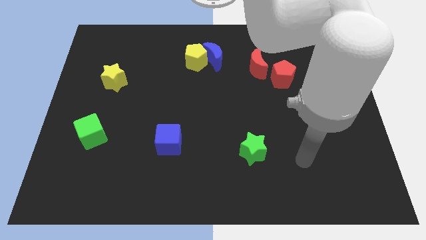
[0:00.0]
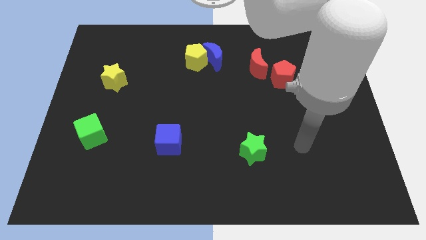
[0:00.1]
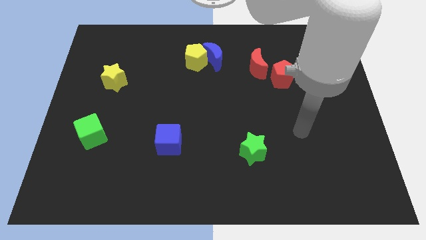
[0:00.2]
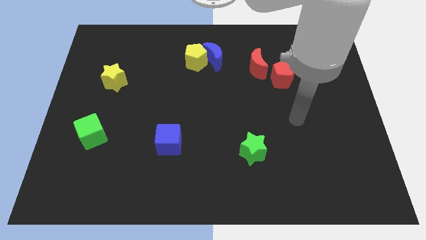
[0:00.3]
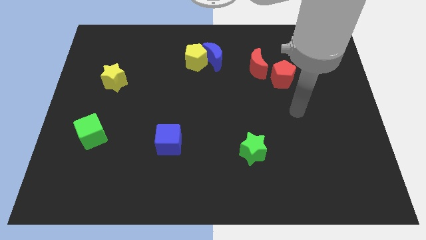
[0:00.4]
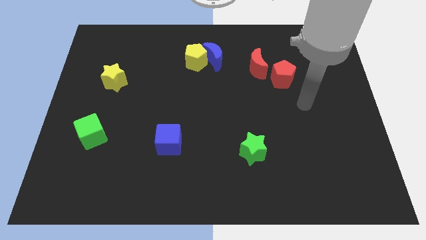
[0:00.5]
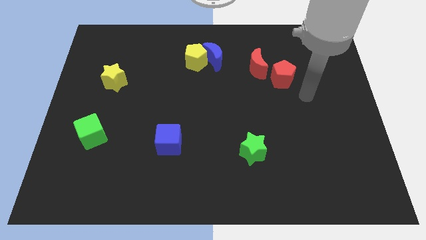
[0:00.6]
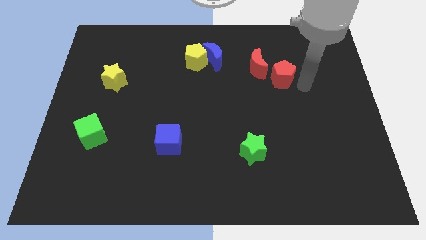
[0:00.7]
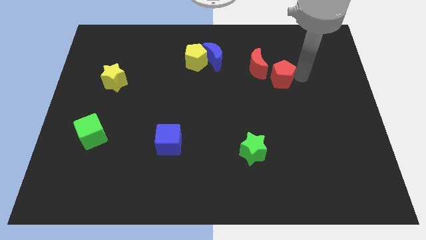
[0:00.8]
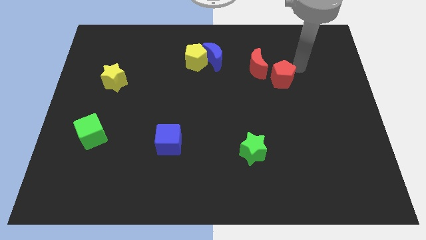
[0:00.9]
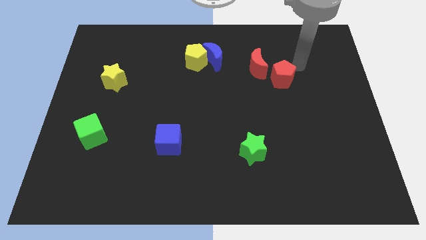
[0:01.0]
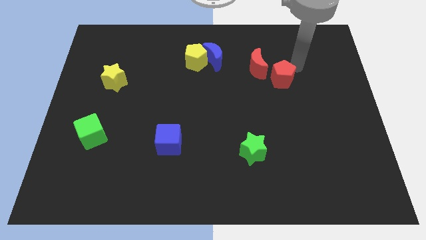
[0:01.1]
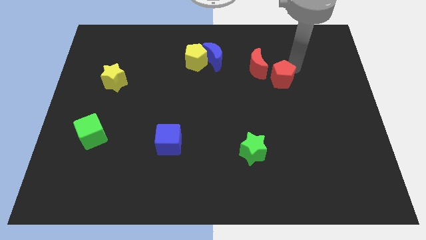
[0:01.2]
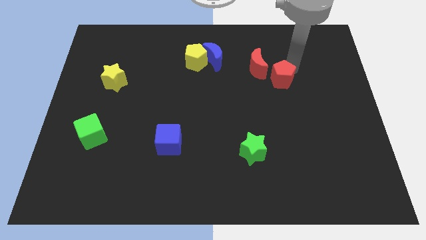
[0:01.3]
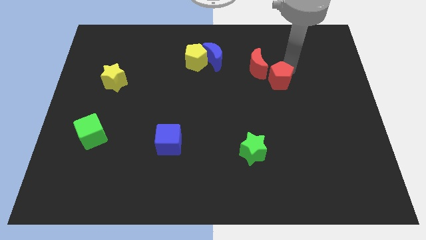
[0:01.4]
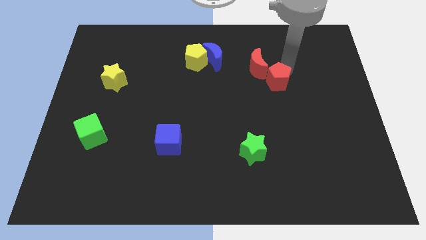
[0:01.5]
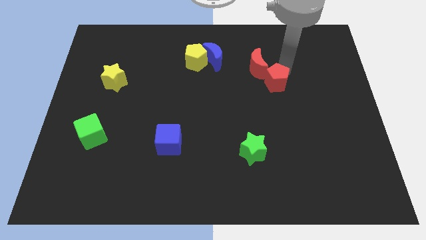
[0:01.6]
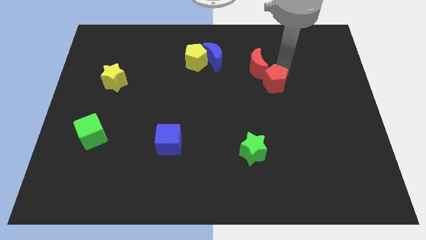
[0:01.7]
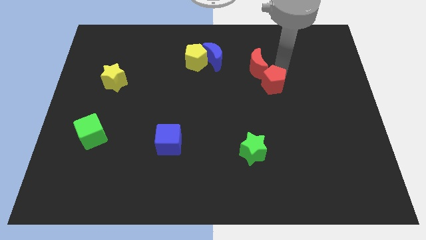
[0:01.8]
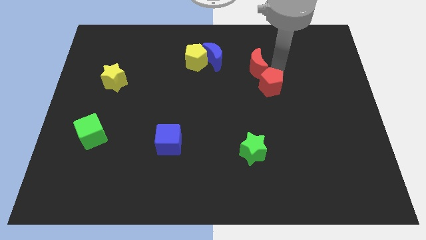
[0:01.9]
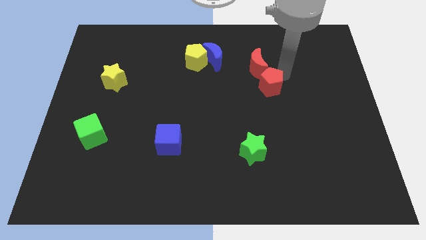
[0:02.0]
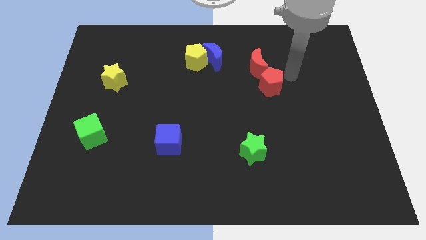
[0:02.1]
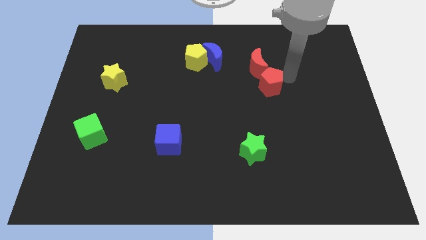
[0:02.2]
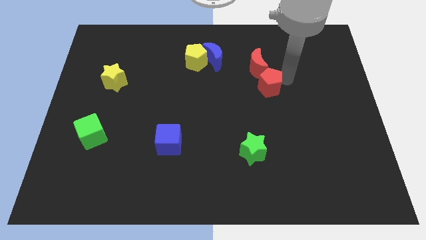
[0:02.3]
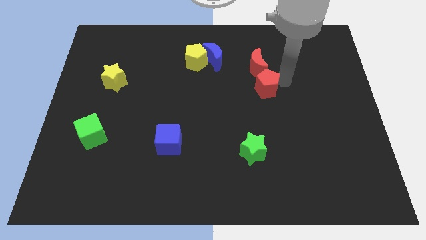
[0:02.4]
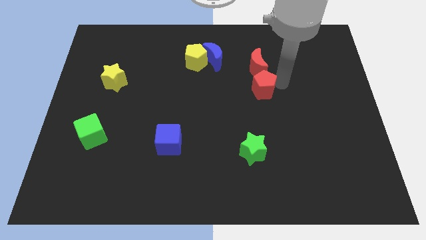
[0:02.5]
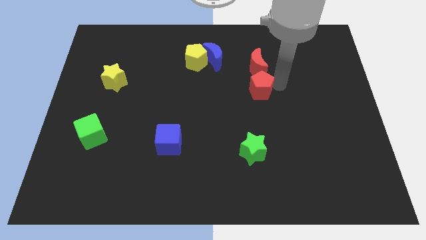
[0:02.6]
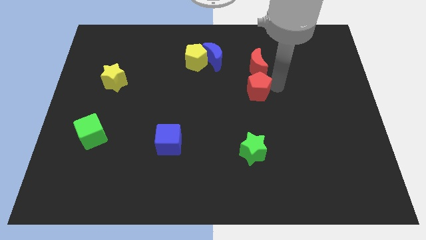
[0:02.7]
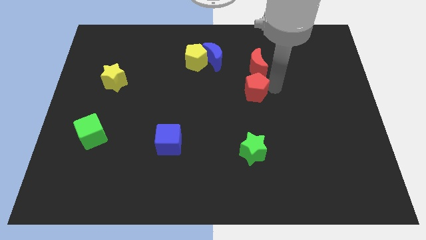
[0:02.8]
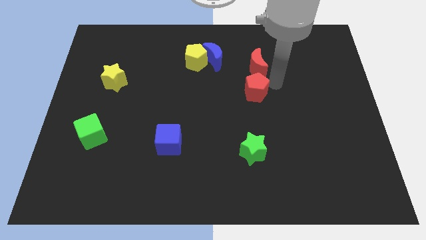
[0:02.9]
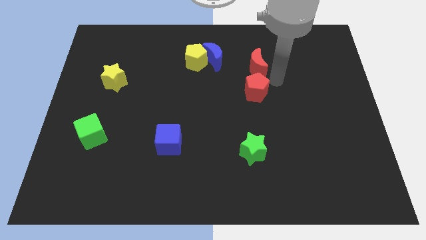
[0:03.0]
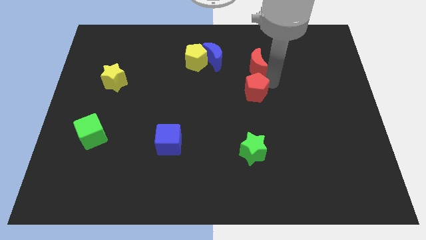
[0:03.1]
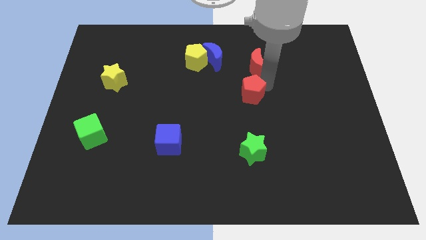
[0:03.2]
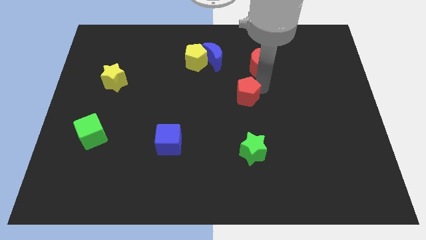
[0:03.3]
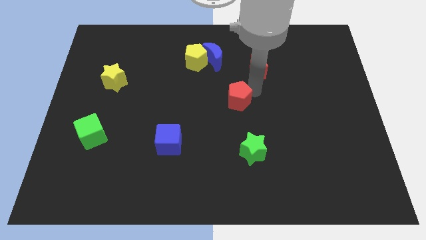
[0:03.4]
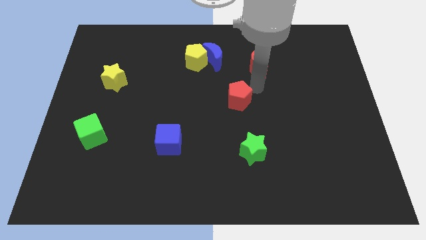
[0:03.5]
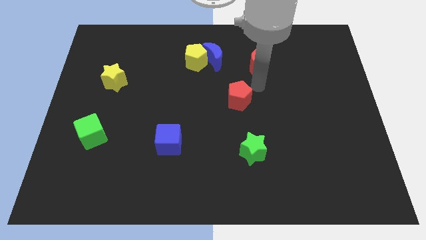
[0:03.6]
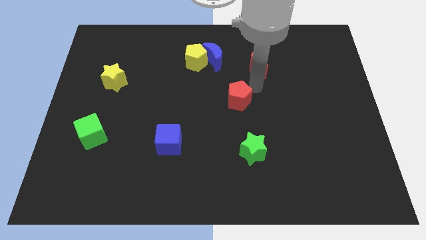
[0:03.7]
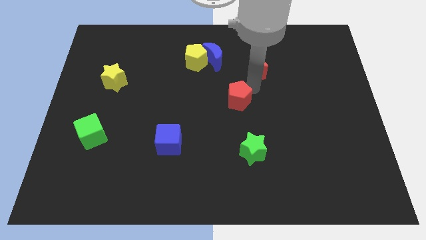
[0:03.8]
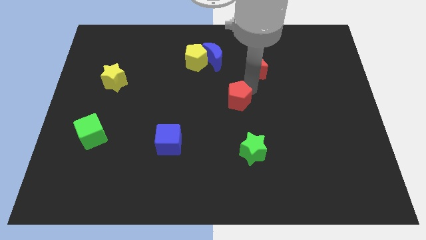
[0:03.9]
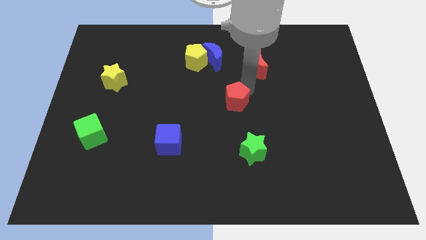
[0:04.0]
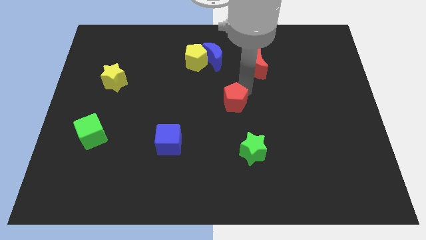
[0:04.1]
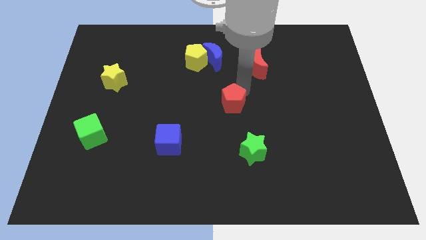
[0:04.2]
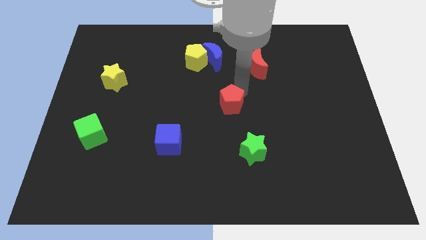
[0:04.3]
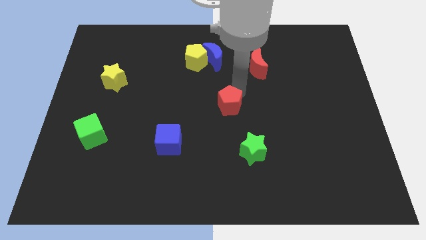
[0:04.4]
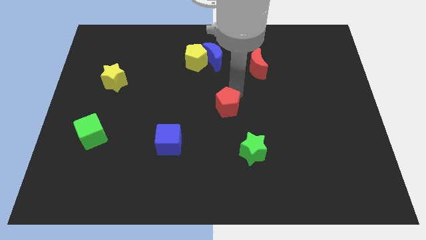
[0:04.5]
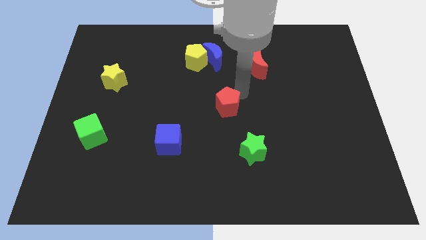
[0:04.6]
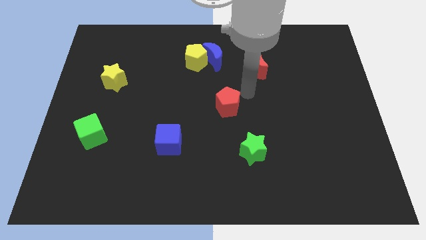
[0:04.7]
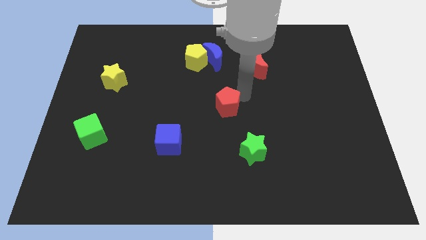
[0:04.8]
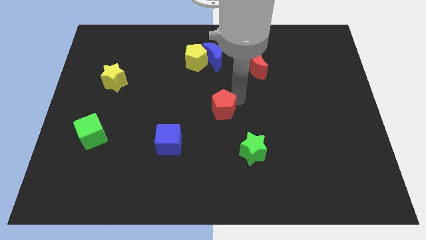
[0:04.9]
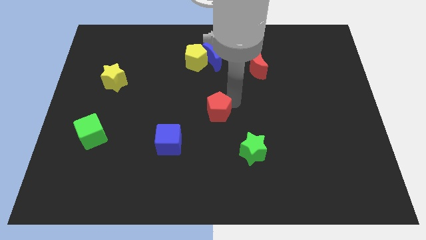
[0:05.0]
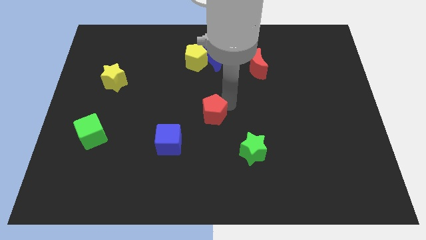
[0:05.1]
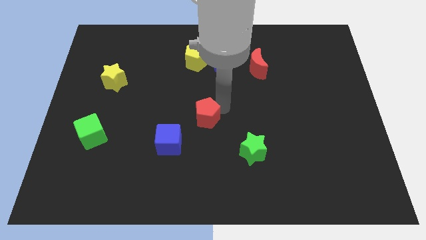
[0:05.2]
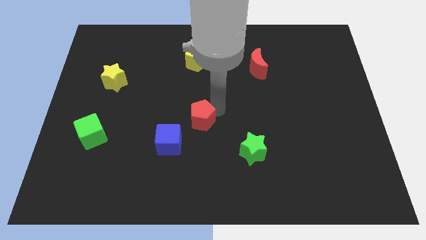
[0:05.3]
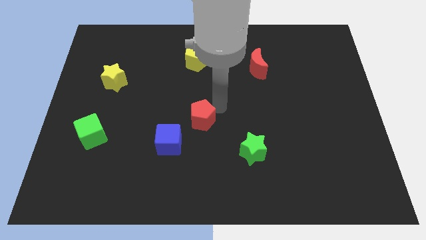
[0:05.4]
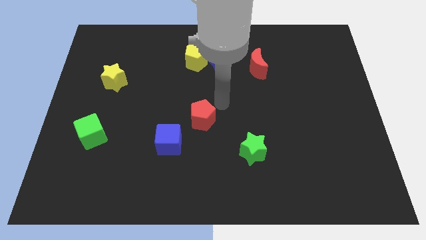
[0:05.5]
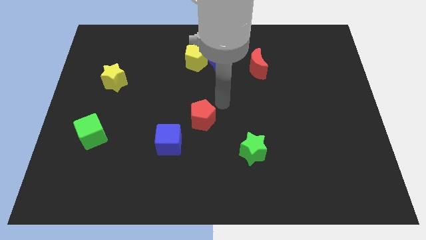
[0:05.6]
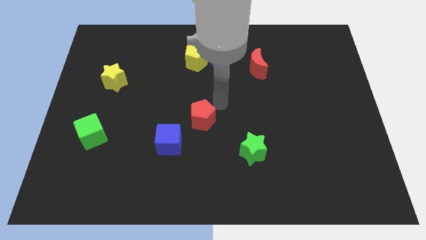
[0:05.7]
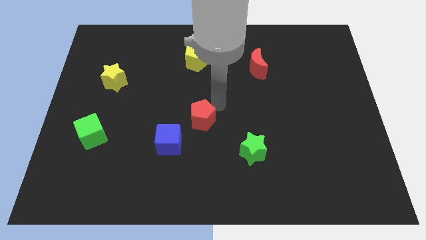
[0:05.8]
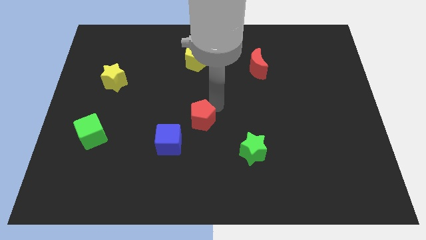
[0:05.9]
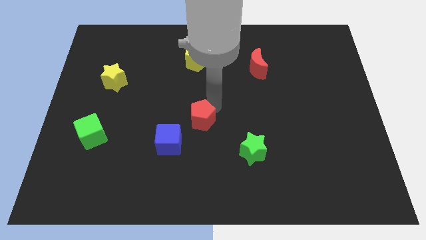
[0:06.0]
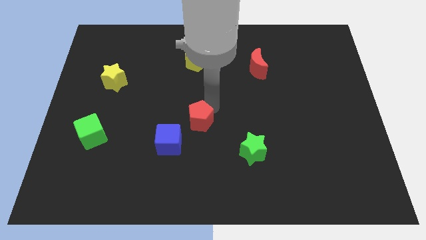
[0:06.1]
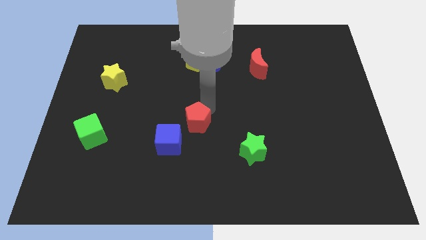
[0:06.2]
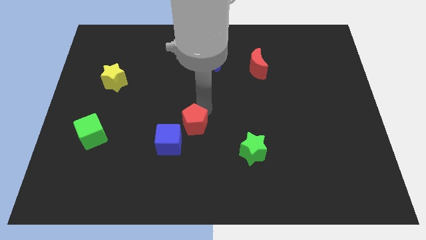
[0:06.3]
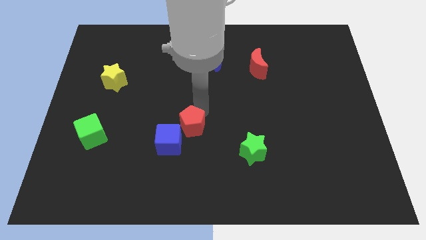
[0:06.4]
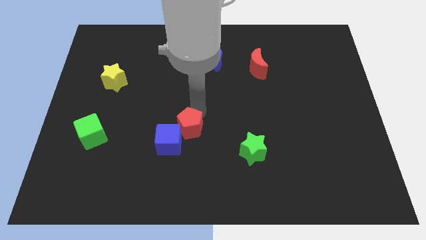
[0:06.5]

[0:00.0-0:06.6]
move the red pentagon to the blue cube
